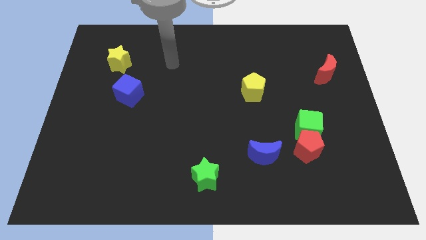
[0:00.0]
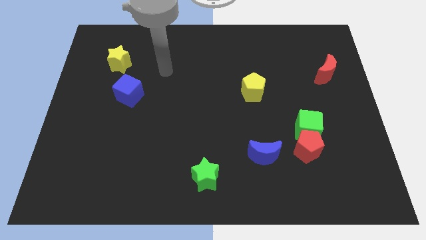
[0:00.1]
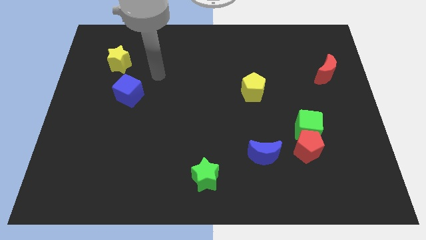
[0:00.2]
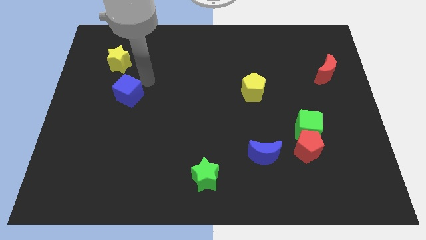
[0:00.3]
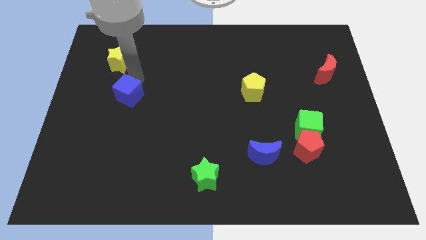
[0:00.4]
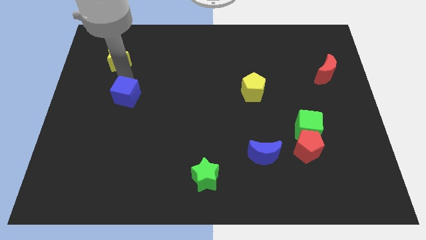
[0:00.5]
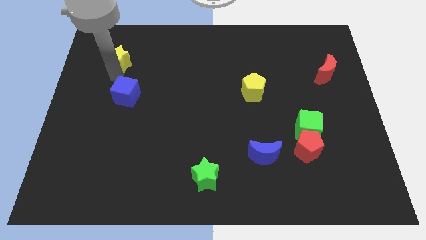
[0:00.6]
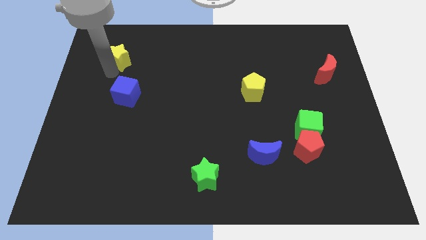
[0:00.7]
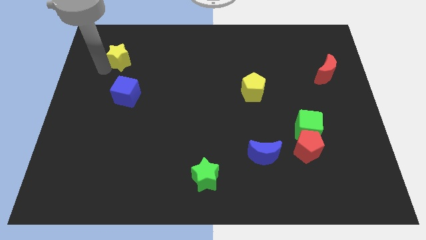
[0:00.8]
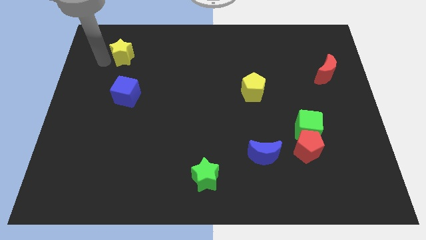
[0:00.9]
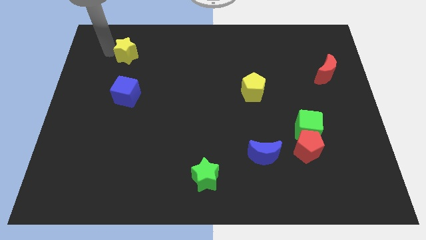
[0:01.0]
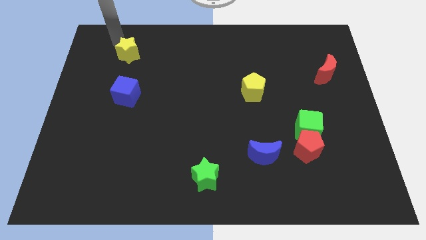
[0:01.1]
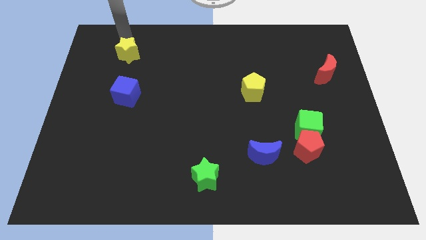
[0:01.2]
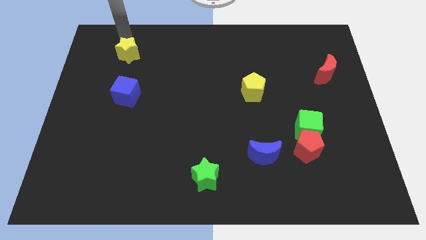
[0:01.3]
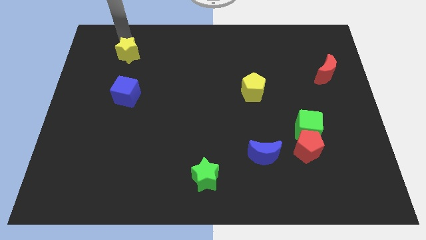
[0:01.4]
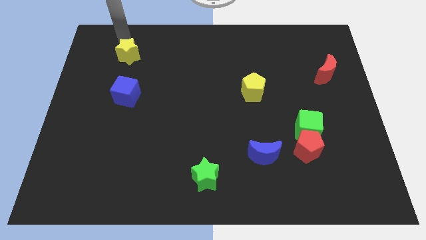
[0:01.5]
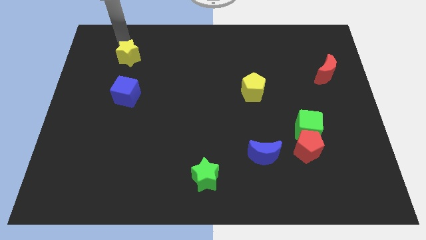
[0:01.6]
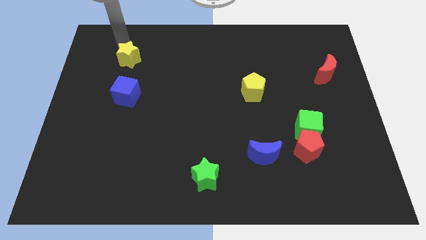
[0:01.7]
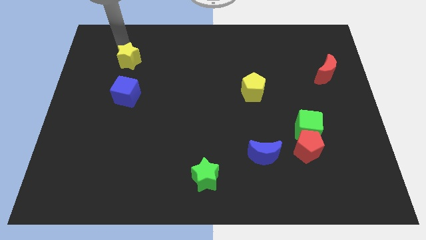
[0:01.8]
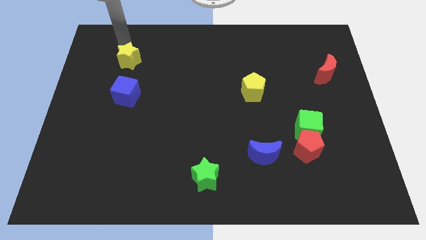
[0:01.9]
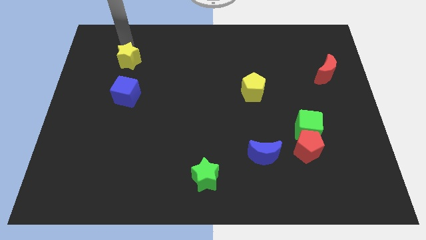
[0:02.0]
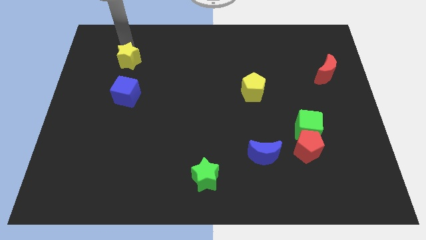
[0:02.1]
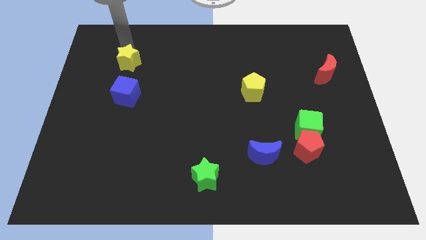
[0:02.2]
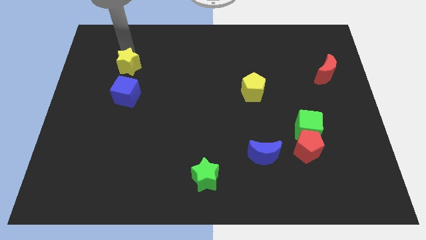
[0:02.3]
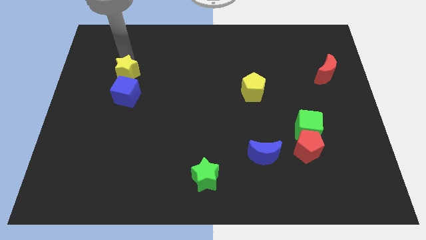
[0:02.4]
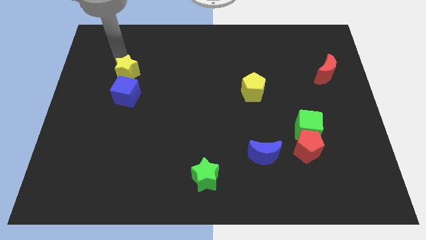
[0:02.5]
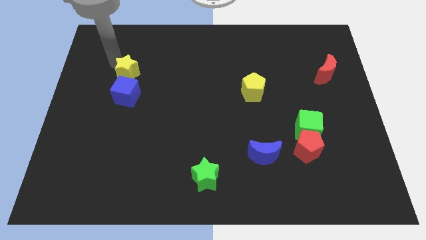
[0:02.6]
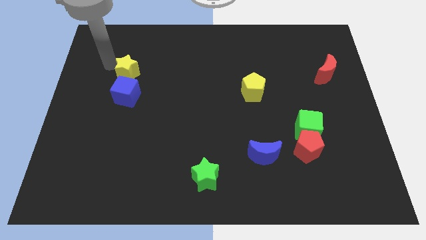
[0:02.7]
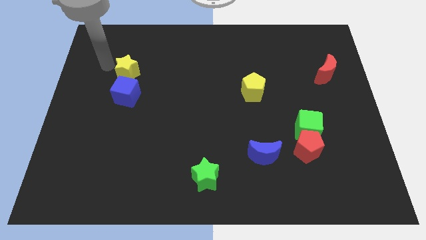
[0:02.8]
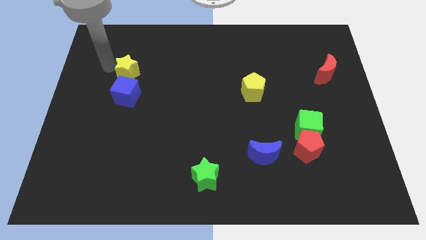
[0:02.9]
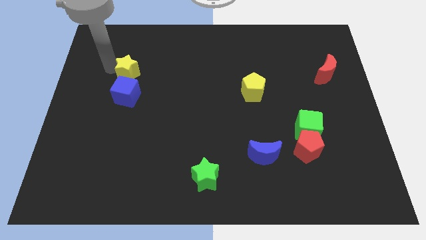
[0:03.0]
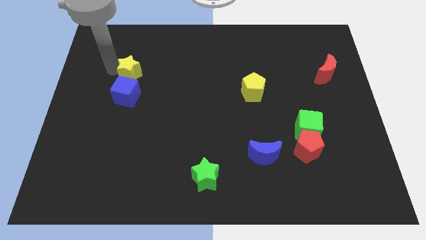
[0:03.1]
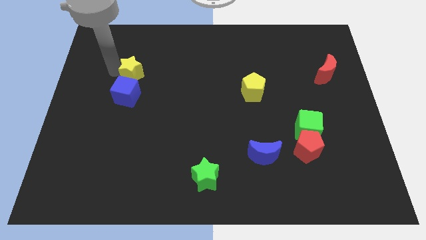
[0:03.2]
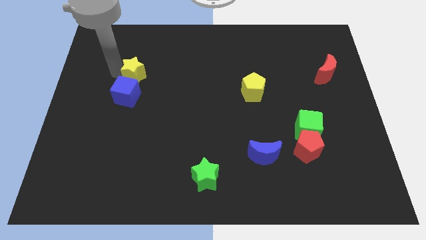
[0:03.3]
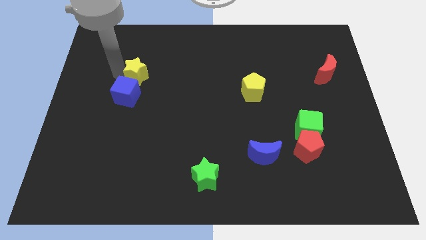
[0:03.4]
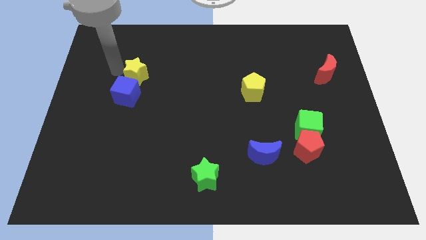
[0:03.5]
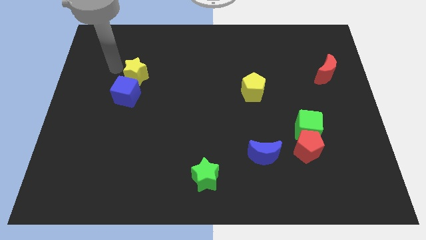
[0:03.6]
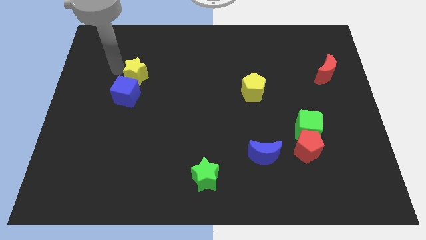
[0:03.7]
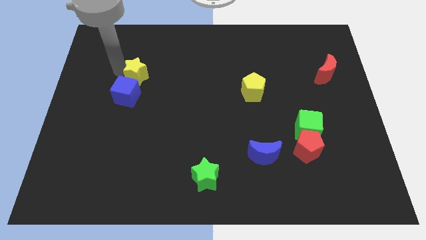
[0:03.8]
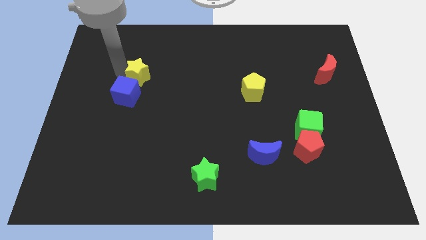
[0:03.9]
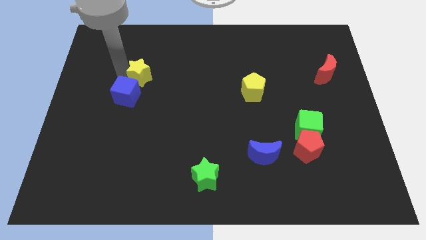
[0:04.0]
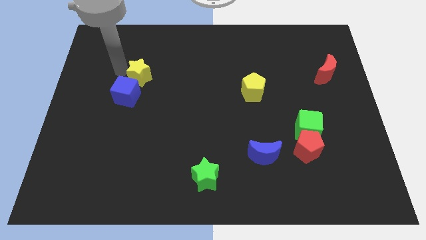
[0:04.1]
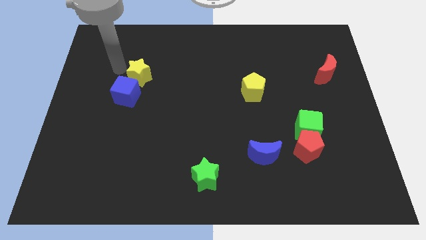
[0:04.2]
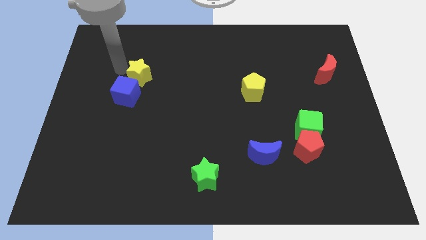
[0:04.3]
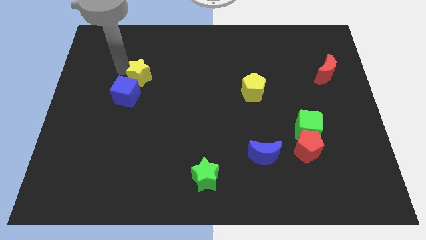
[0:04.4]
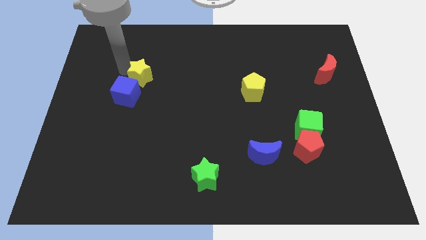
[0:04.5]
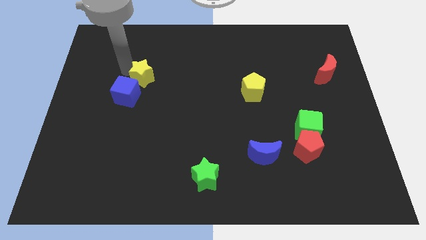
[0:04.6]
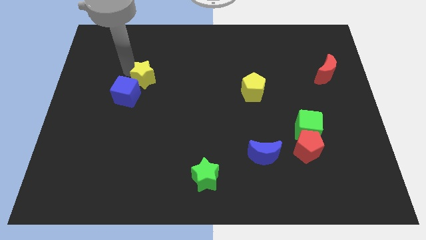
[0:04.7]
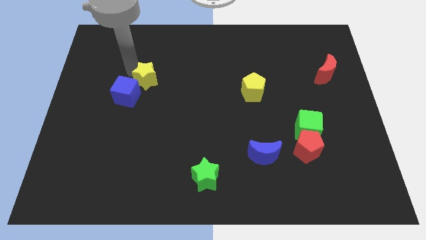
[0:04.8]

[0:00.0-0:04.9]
push the yellow star to the right side of the blue cube

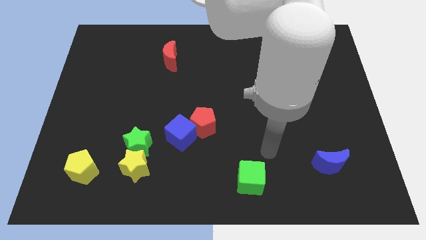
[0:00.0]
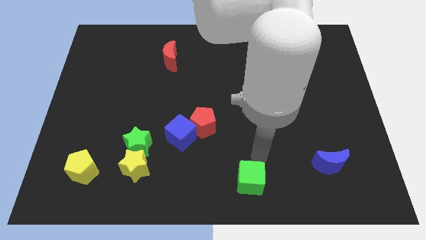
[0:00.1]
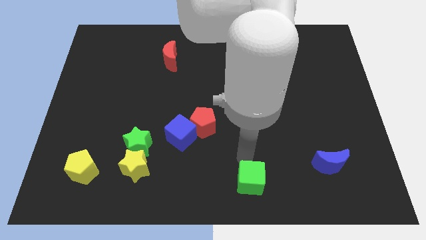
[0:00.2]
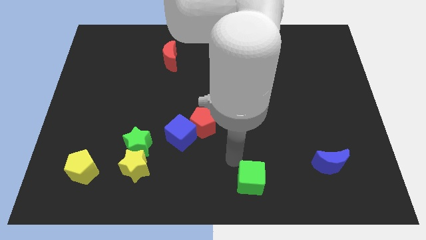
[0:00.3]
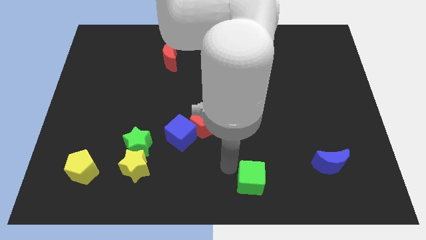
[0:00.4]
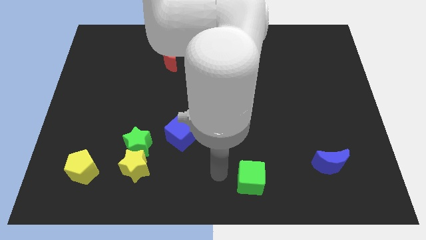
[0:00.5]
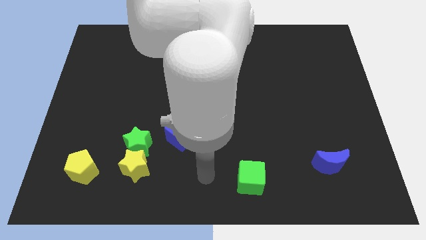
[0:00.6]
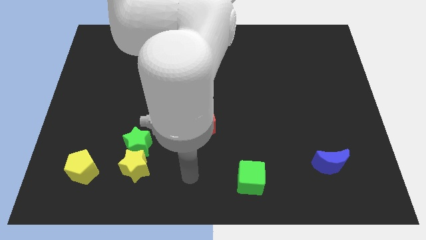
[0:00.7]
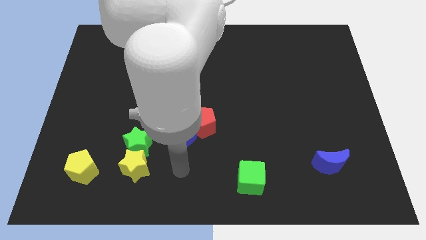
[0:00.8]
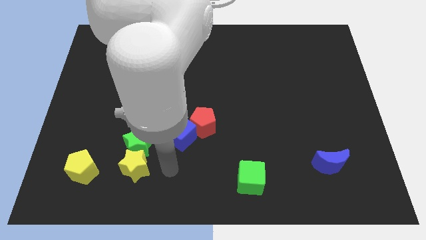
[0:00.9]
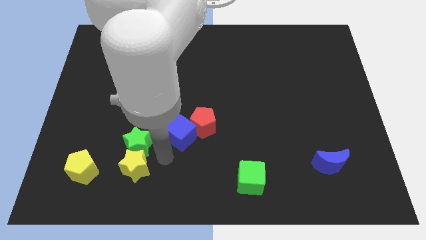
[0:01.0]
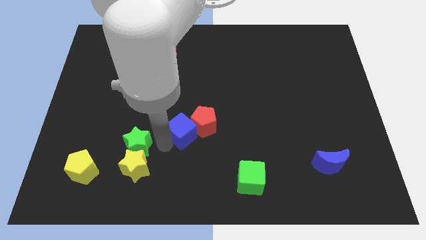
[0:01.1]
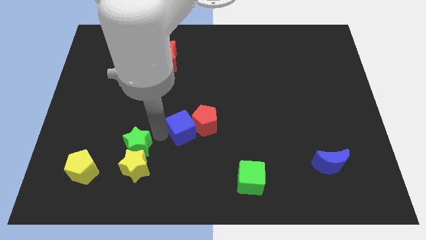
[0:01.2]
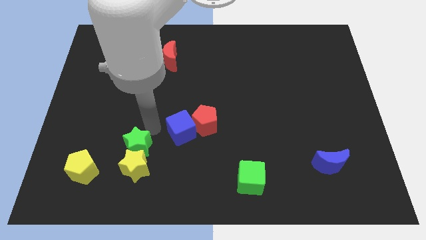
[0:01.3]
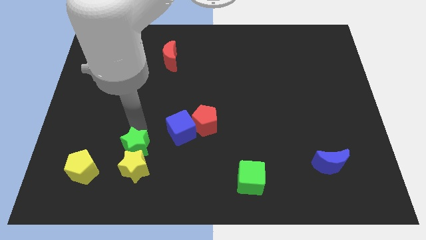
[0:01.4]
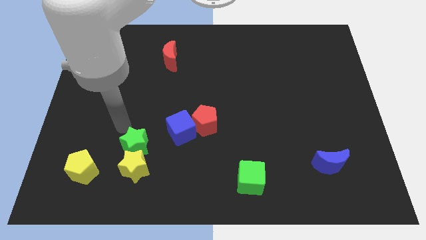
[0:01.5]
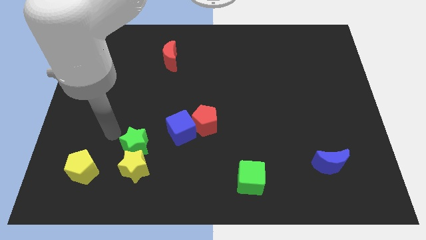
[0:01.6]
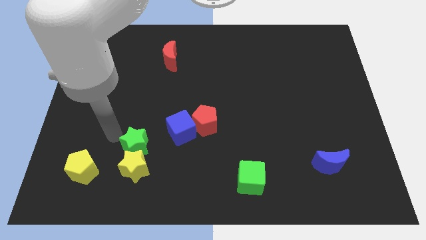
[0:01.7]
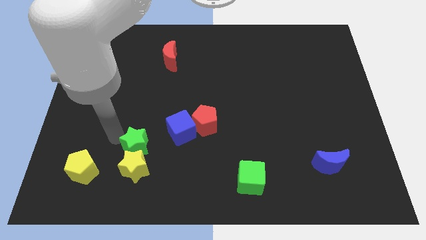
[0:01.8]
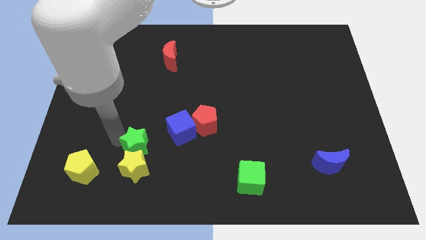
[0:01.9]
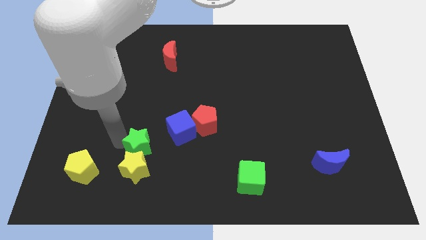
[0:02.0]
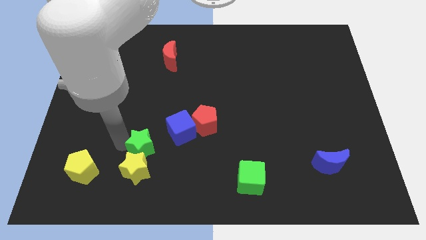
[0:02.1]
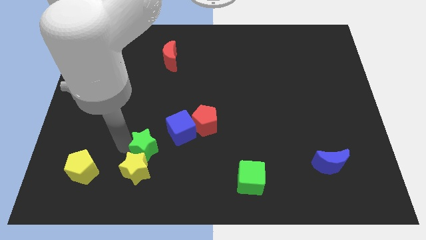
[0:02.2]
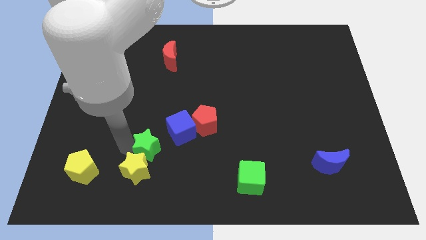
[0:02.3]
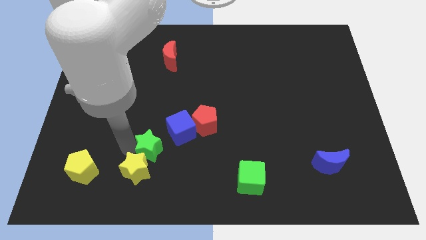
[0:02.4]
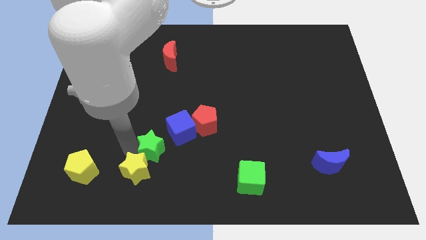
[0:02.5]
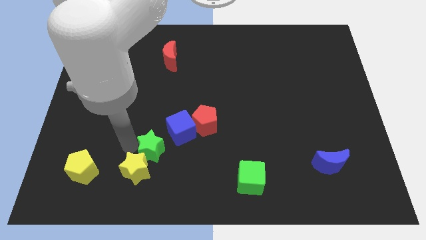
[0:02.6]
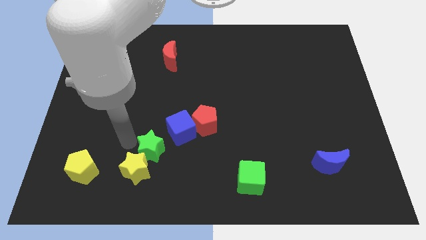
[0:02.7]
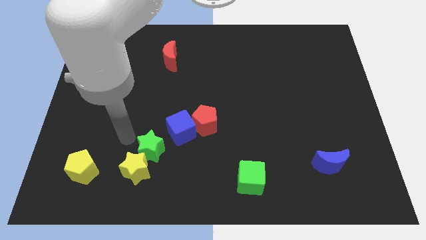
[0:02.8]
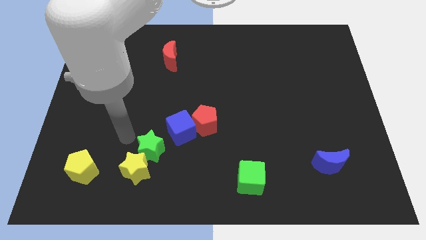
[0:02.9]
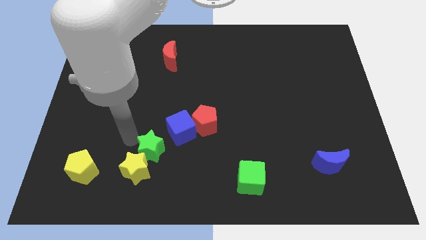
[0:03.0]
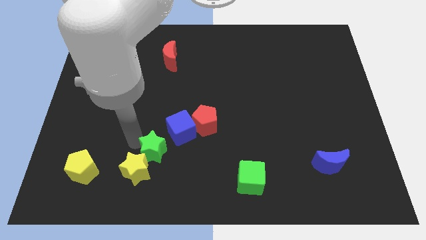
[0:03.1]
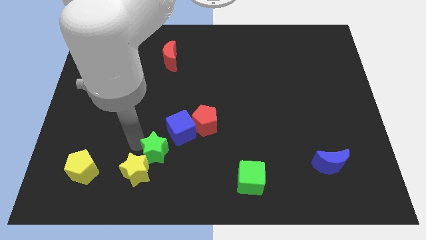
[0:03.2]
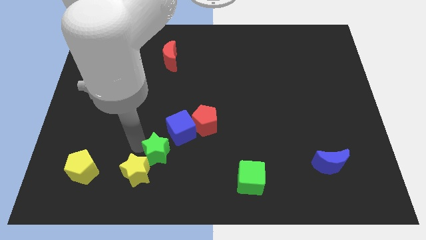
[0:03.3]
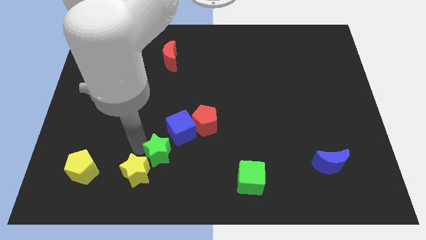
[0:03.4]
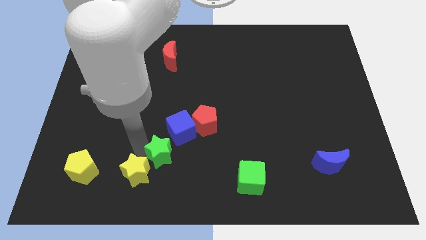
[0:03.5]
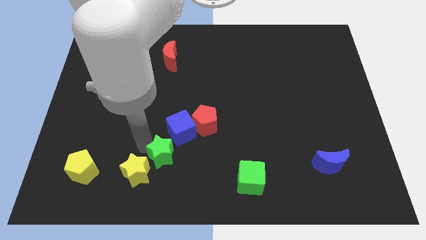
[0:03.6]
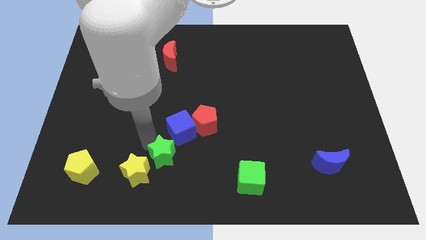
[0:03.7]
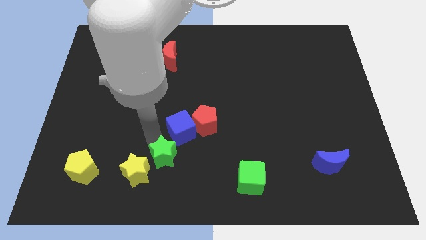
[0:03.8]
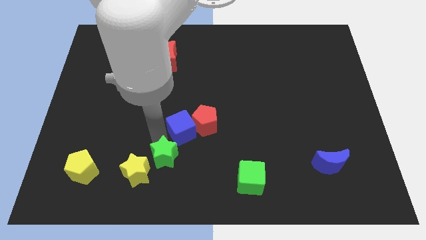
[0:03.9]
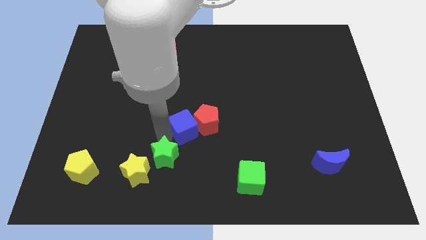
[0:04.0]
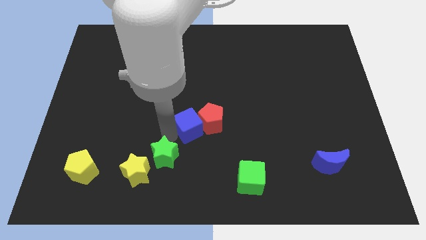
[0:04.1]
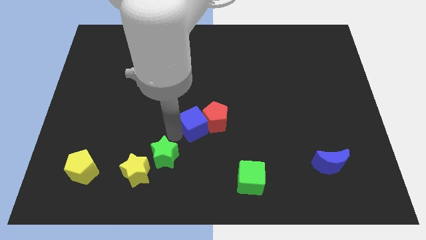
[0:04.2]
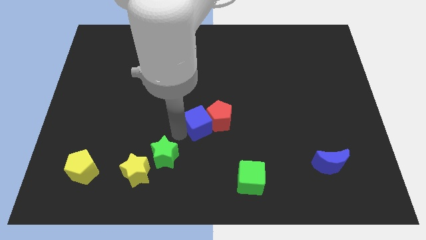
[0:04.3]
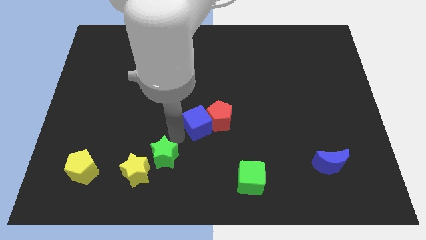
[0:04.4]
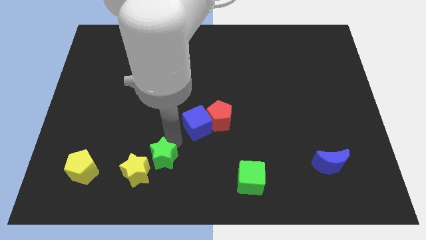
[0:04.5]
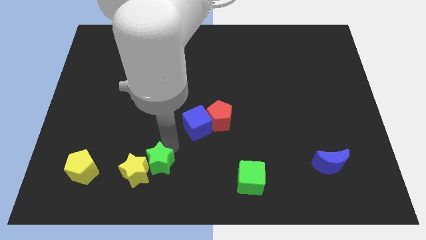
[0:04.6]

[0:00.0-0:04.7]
put the green star right of the yellow pentagon
